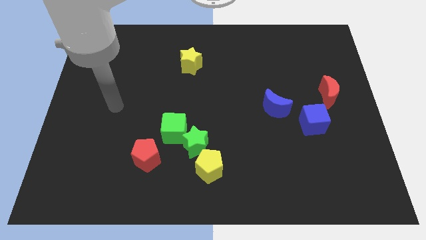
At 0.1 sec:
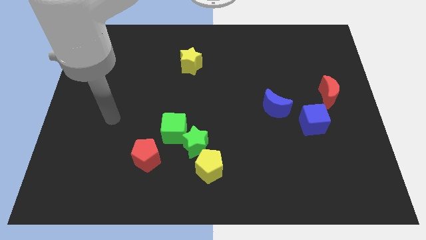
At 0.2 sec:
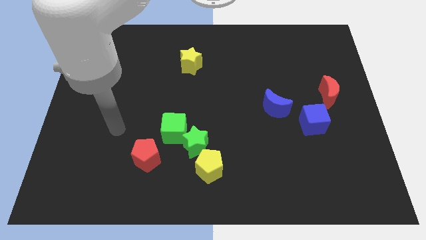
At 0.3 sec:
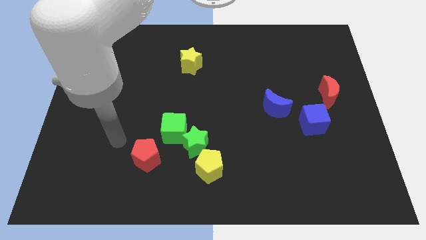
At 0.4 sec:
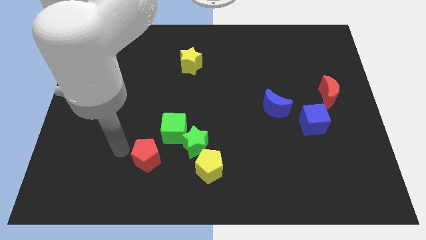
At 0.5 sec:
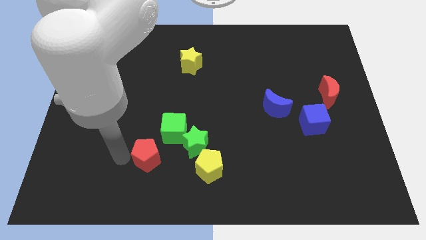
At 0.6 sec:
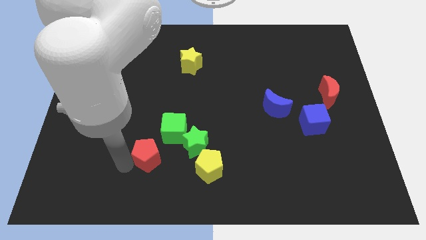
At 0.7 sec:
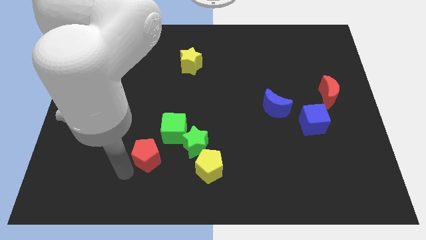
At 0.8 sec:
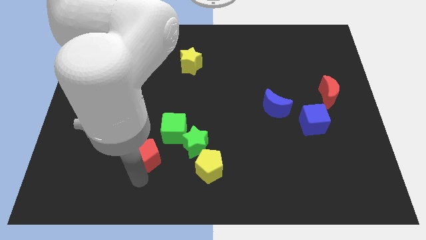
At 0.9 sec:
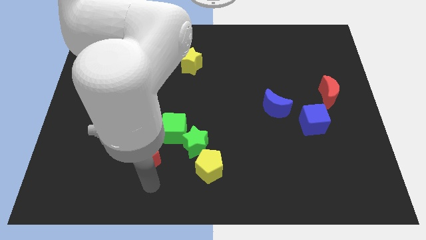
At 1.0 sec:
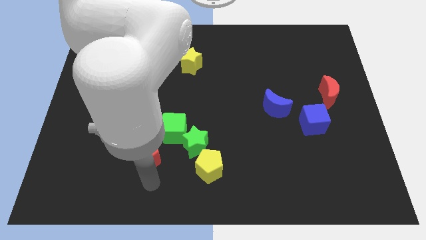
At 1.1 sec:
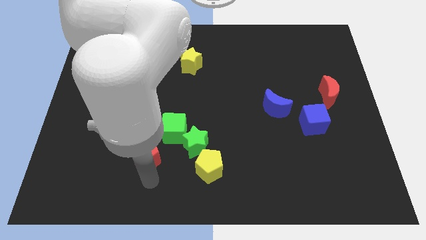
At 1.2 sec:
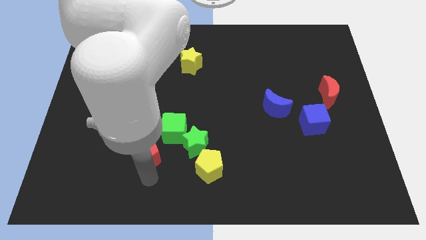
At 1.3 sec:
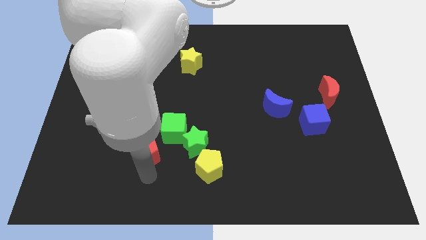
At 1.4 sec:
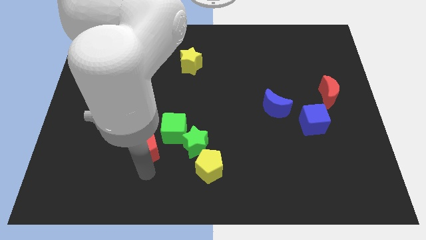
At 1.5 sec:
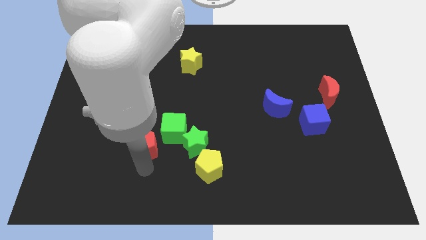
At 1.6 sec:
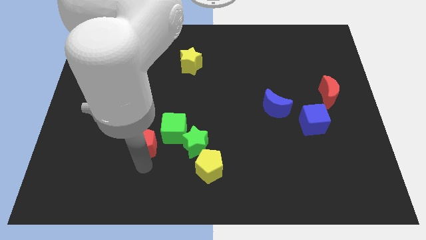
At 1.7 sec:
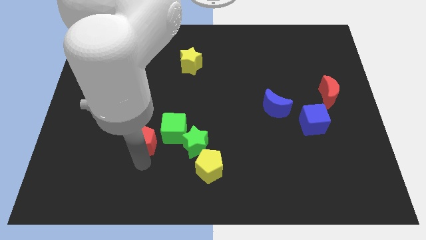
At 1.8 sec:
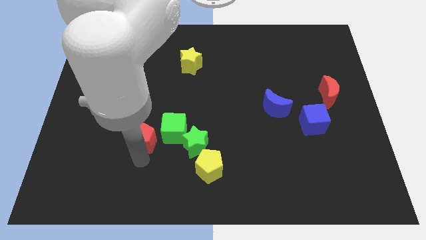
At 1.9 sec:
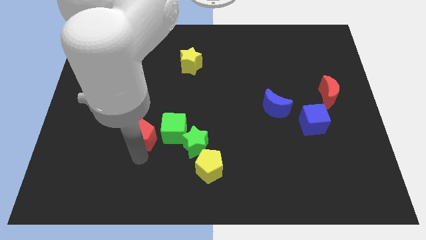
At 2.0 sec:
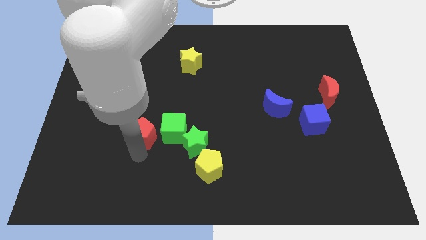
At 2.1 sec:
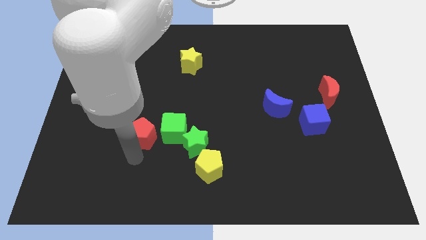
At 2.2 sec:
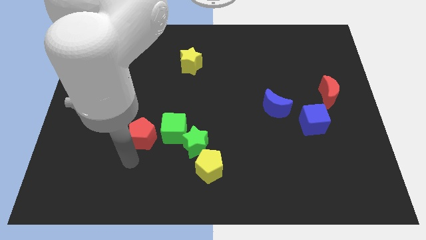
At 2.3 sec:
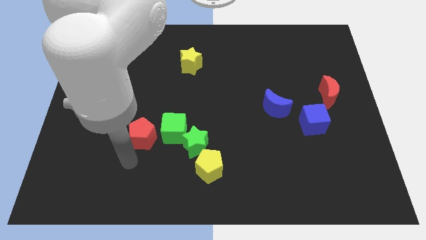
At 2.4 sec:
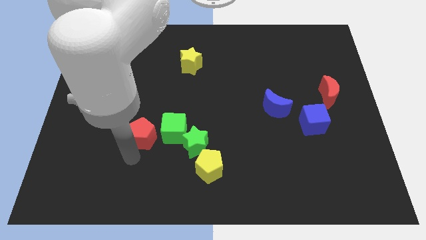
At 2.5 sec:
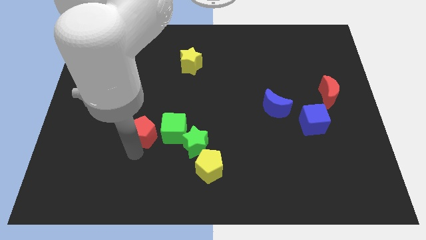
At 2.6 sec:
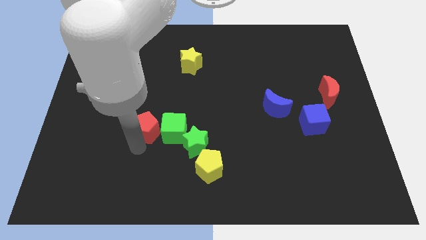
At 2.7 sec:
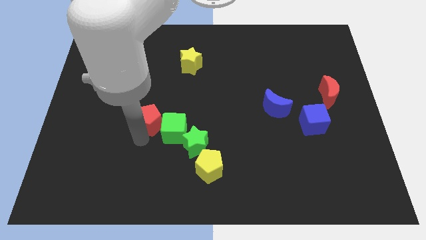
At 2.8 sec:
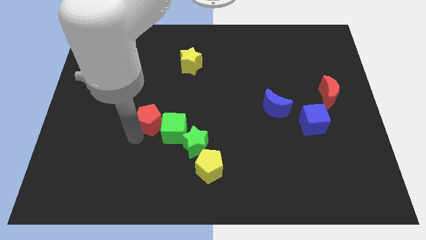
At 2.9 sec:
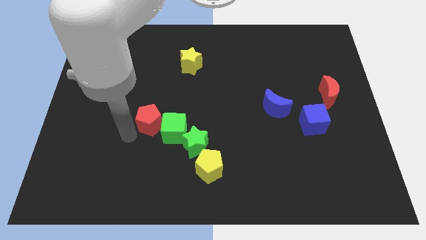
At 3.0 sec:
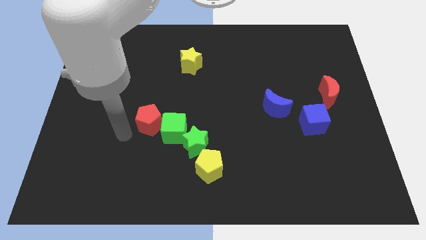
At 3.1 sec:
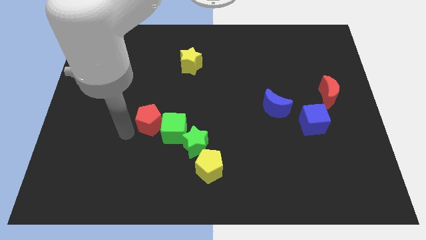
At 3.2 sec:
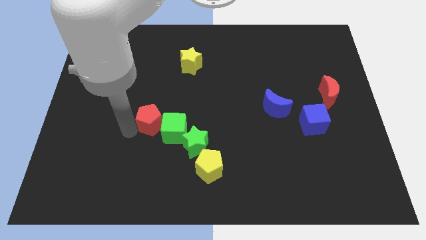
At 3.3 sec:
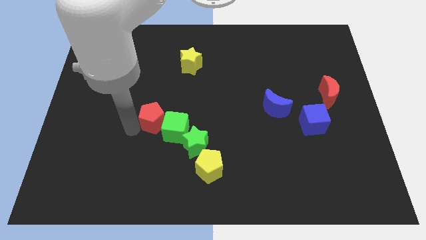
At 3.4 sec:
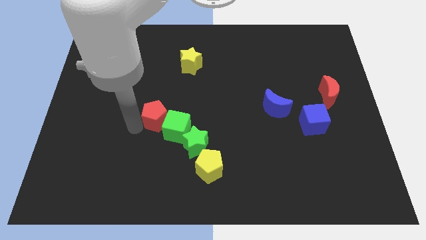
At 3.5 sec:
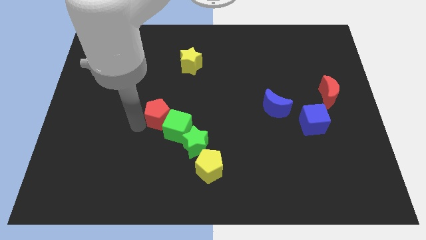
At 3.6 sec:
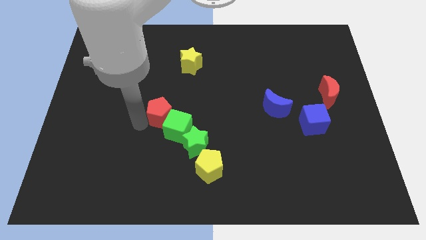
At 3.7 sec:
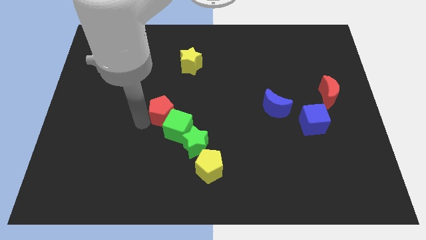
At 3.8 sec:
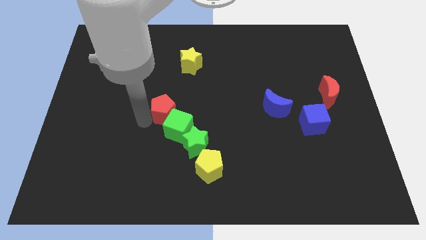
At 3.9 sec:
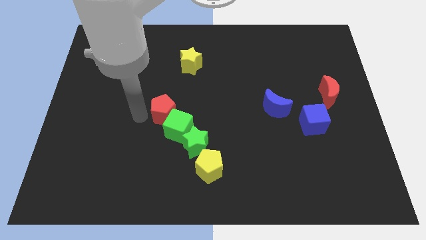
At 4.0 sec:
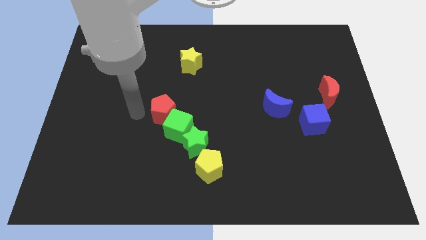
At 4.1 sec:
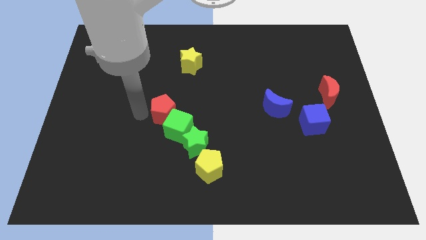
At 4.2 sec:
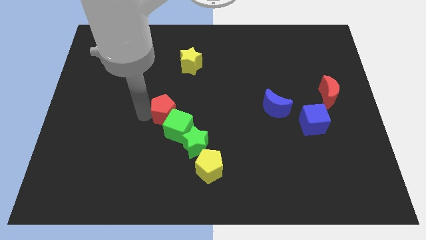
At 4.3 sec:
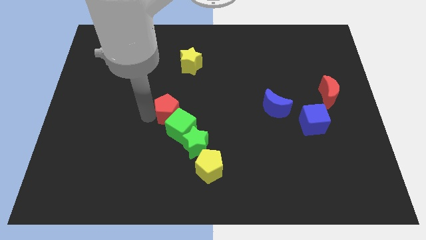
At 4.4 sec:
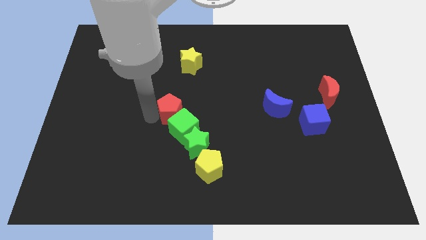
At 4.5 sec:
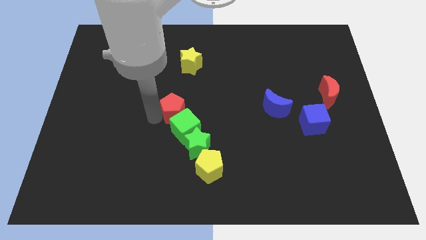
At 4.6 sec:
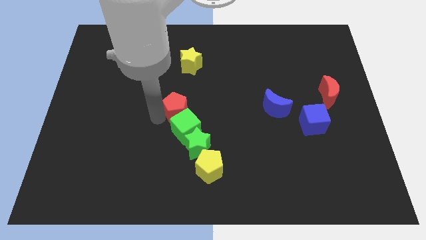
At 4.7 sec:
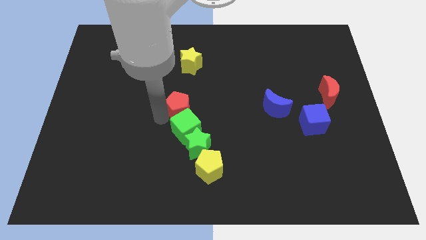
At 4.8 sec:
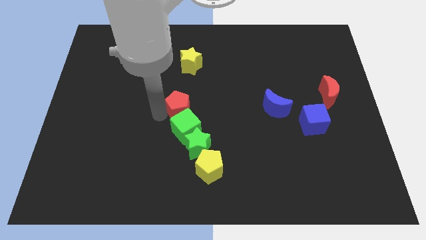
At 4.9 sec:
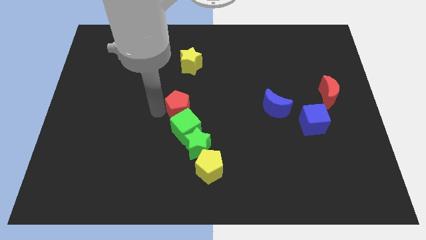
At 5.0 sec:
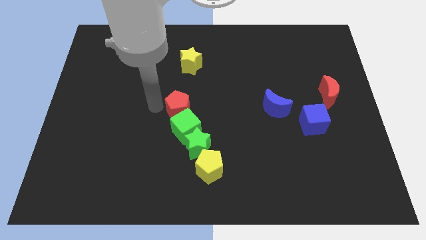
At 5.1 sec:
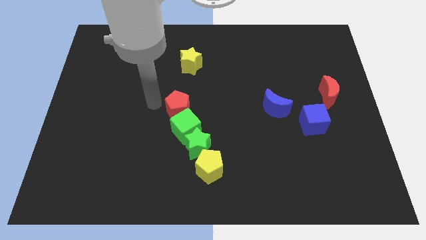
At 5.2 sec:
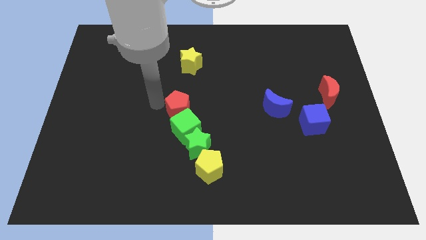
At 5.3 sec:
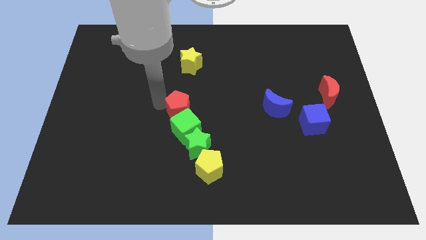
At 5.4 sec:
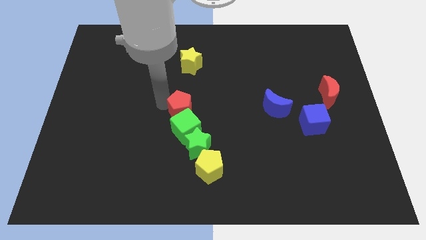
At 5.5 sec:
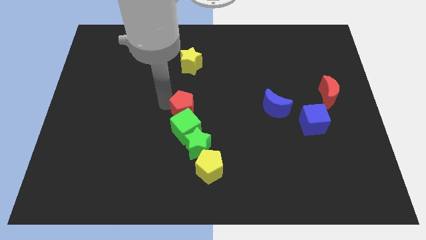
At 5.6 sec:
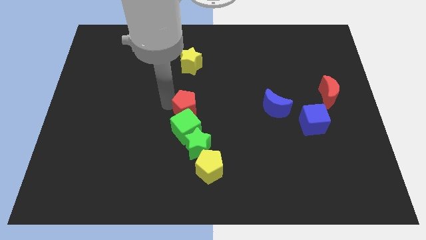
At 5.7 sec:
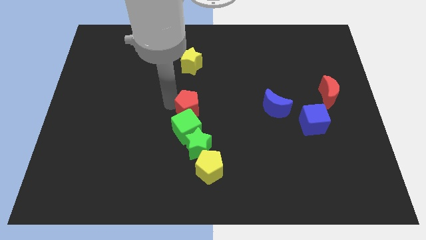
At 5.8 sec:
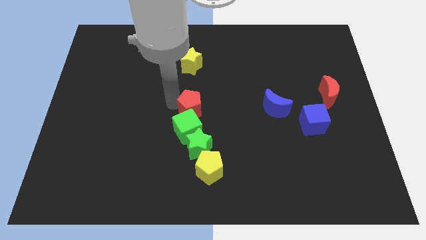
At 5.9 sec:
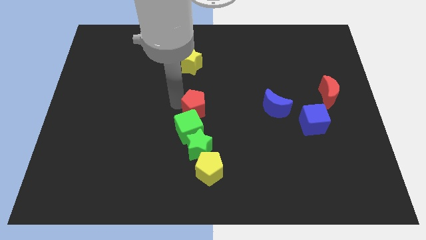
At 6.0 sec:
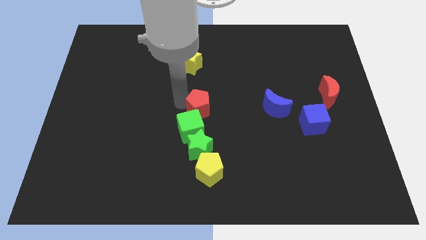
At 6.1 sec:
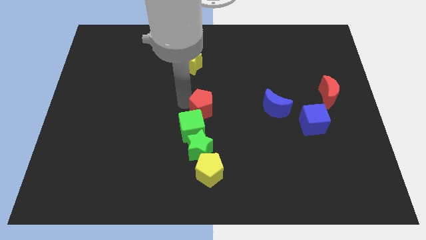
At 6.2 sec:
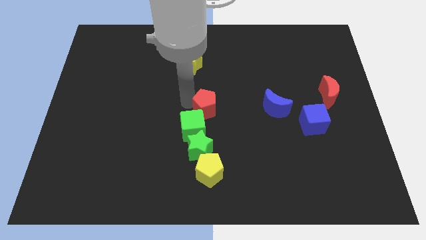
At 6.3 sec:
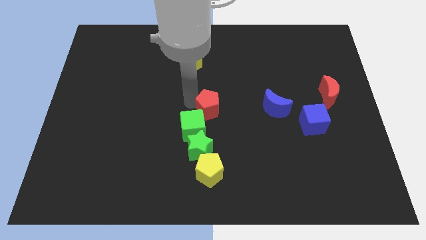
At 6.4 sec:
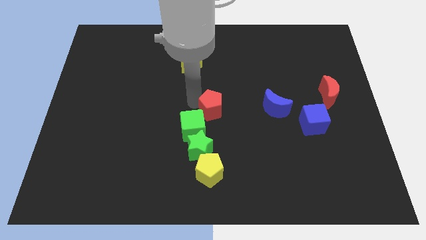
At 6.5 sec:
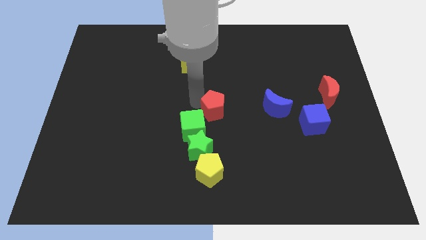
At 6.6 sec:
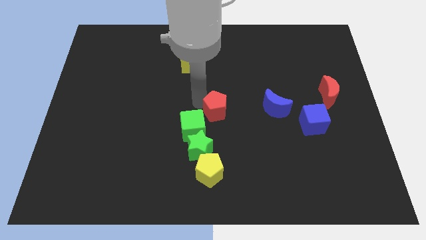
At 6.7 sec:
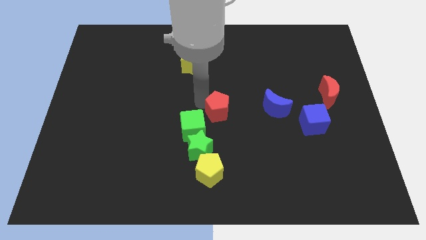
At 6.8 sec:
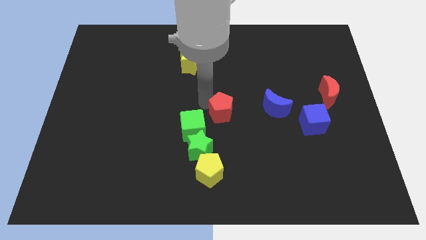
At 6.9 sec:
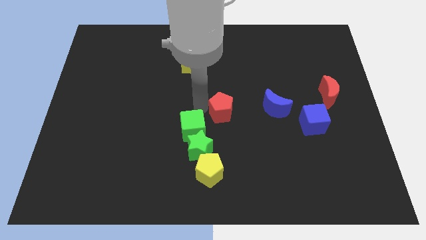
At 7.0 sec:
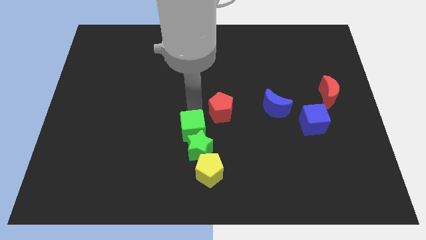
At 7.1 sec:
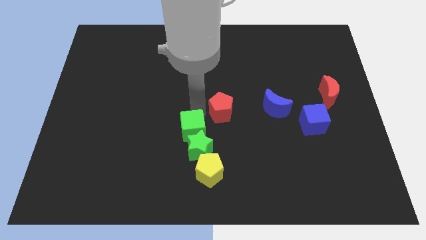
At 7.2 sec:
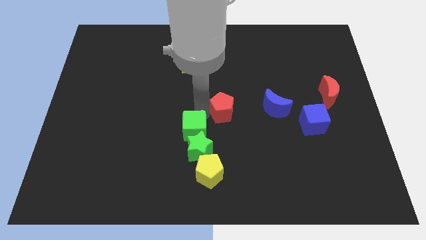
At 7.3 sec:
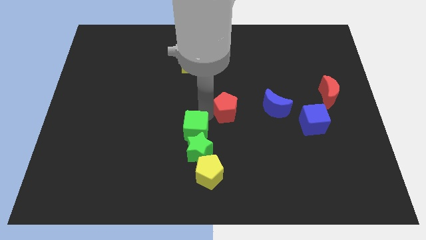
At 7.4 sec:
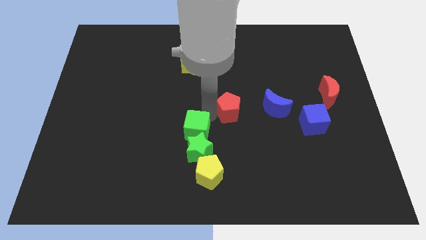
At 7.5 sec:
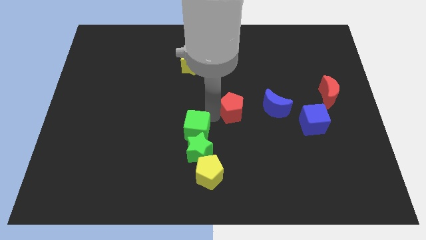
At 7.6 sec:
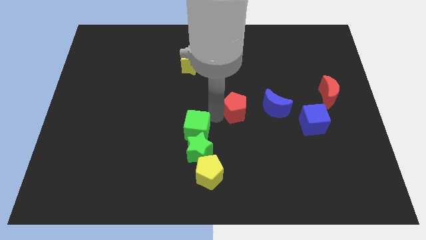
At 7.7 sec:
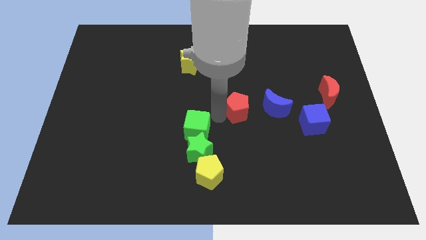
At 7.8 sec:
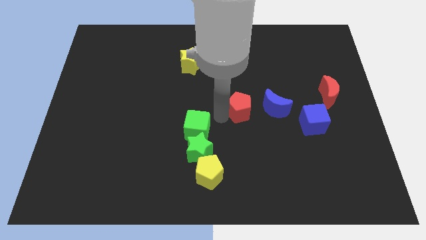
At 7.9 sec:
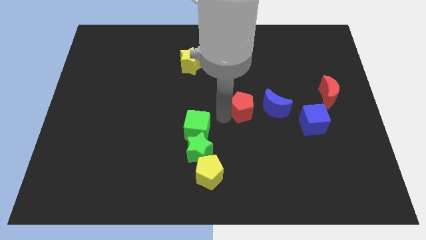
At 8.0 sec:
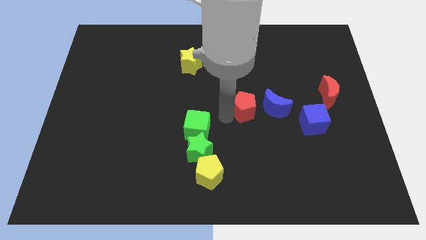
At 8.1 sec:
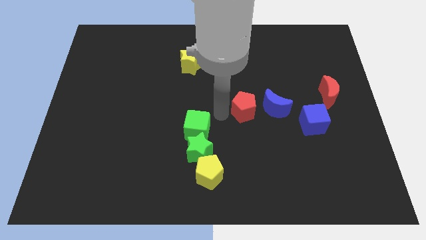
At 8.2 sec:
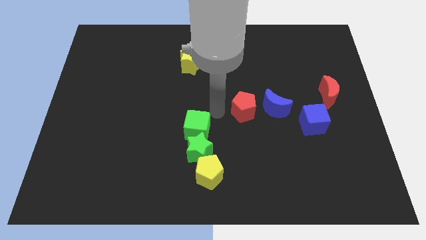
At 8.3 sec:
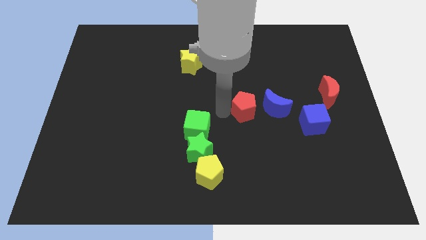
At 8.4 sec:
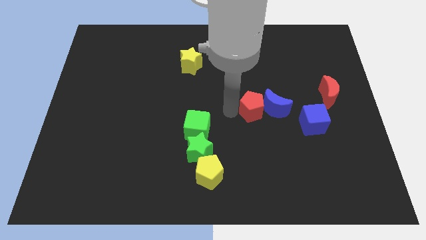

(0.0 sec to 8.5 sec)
push the red pentagon to the blue moon
